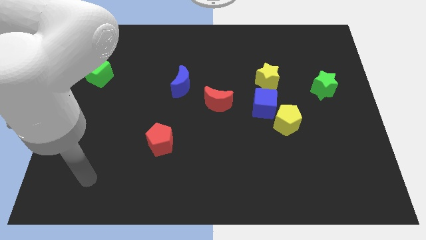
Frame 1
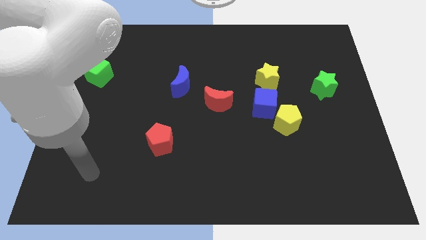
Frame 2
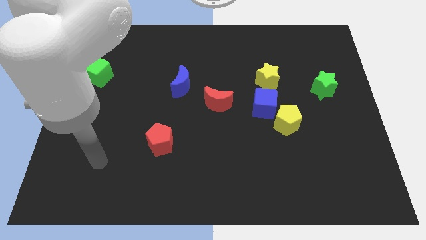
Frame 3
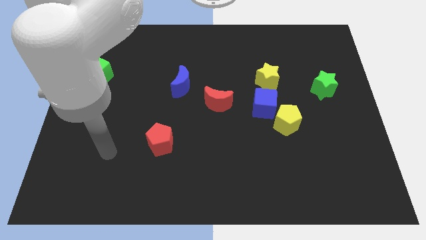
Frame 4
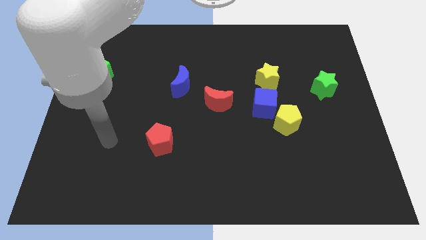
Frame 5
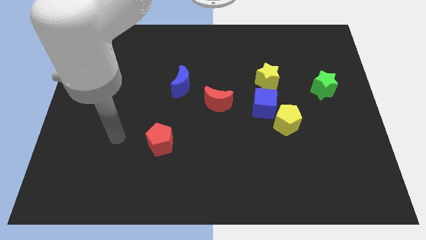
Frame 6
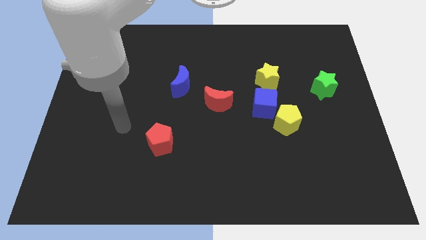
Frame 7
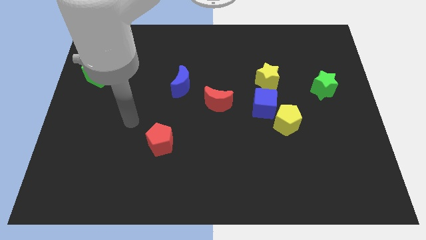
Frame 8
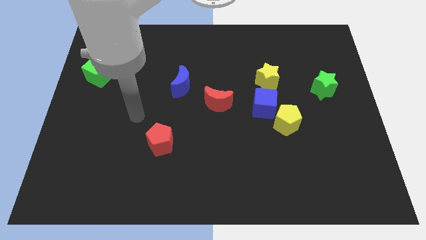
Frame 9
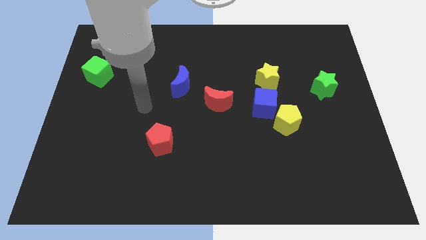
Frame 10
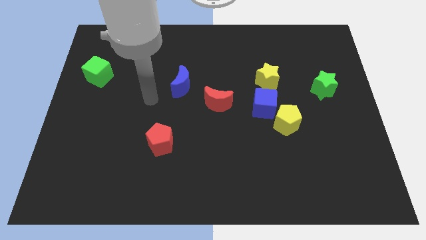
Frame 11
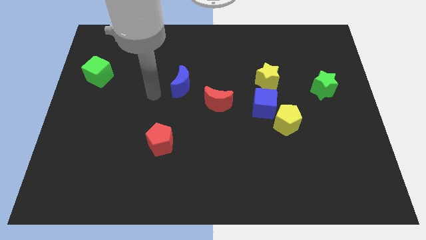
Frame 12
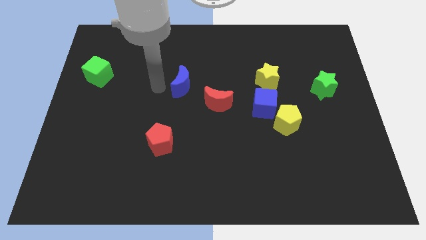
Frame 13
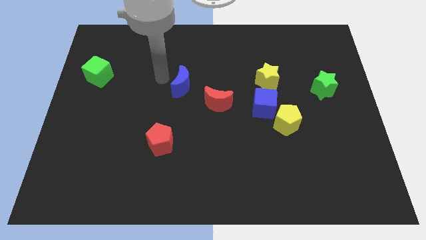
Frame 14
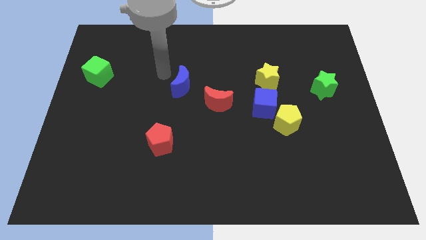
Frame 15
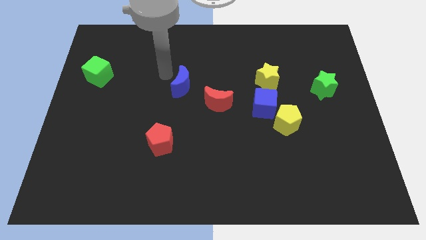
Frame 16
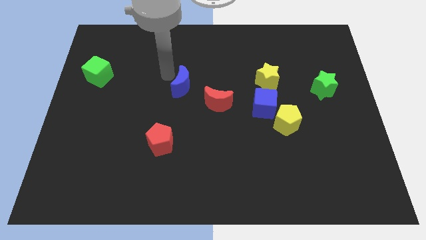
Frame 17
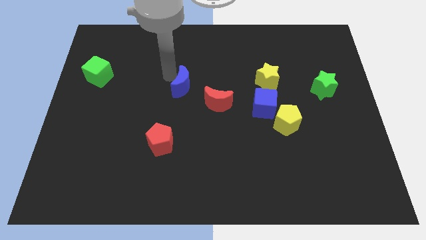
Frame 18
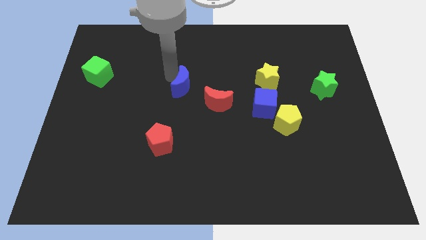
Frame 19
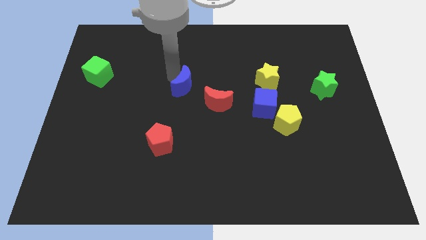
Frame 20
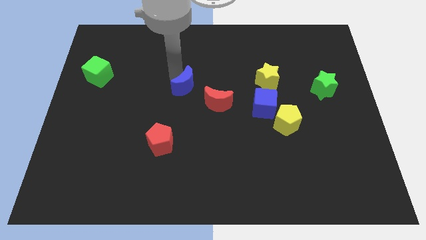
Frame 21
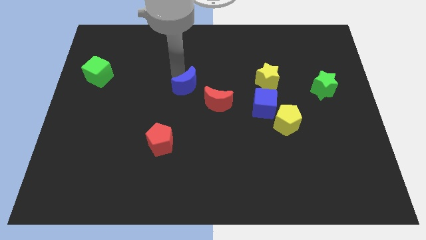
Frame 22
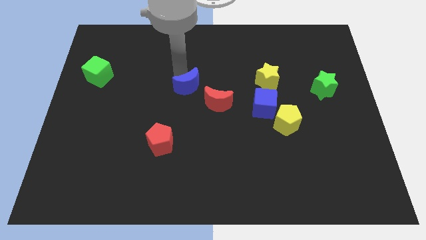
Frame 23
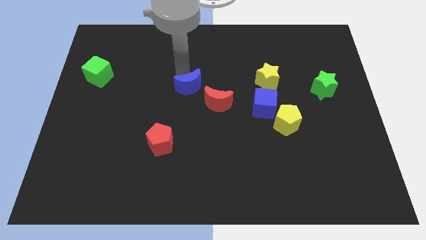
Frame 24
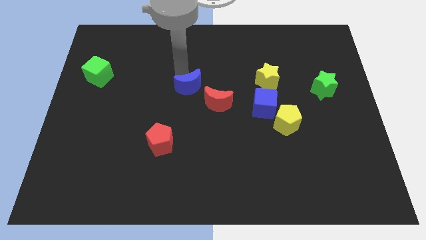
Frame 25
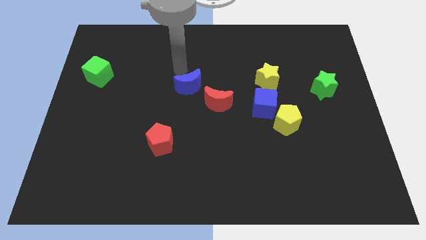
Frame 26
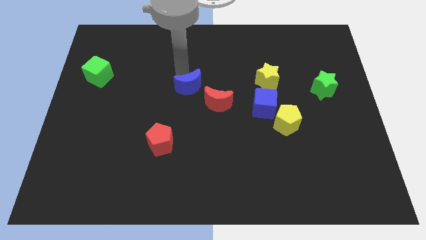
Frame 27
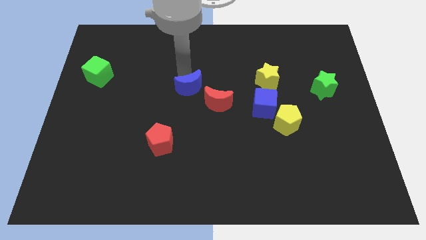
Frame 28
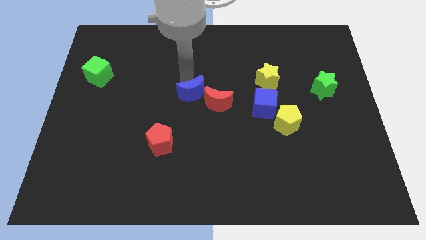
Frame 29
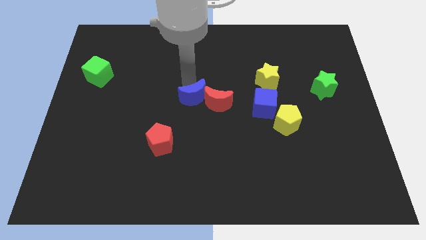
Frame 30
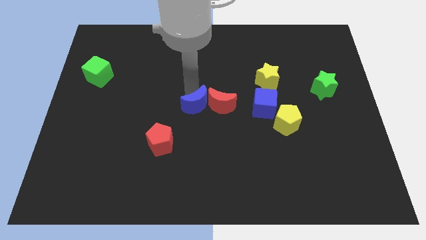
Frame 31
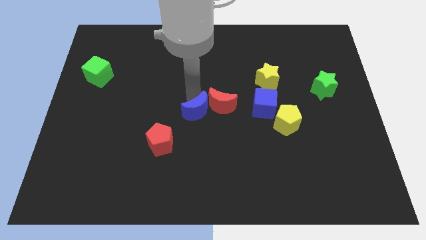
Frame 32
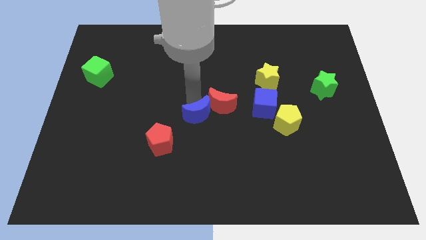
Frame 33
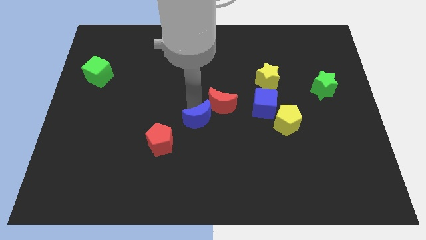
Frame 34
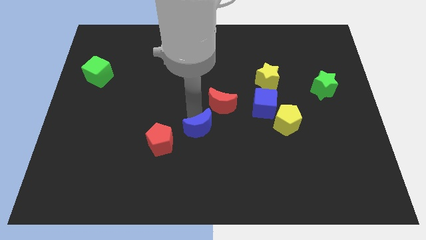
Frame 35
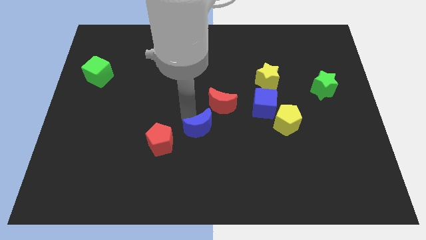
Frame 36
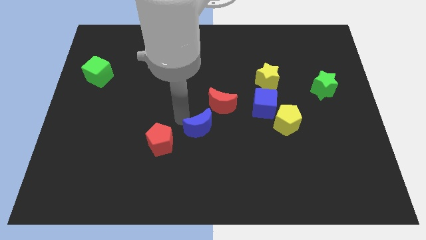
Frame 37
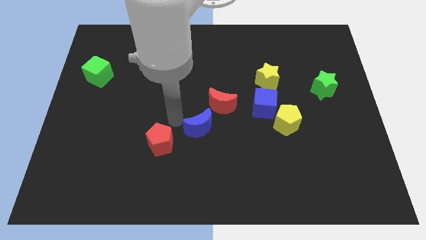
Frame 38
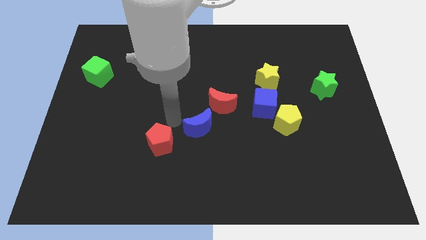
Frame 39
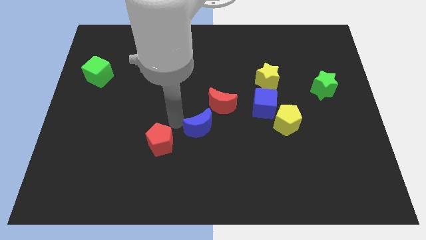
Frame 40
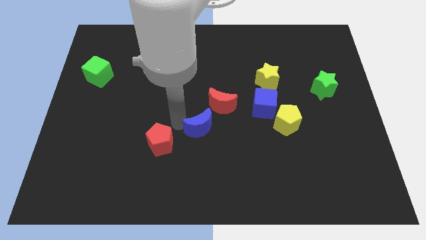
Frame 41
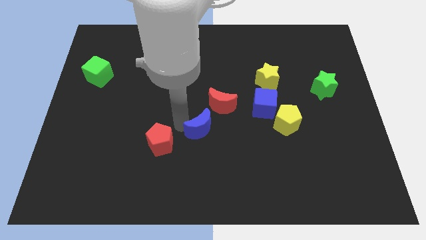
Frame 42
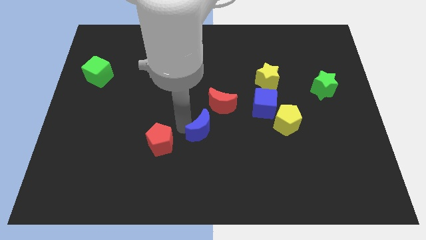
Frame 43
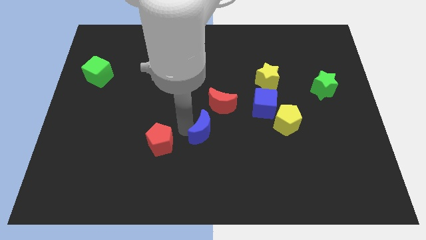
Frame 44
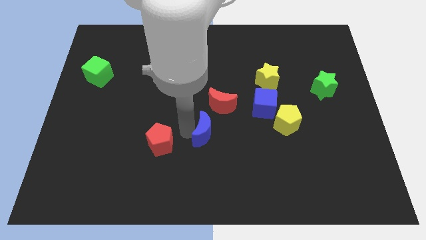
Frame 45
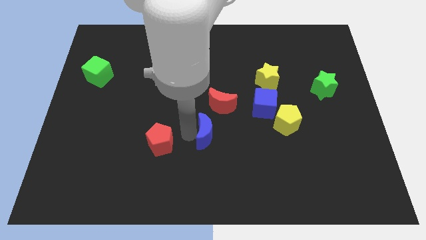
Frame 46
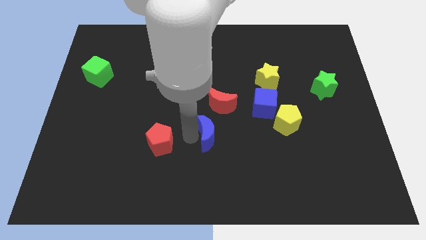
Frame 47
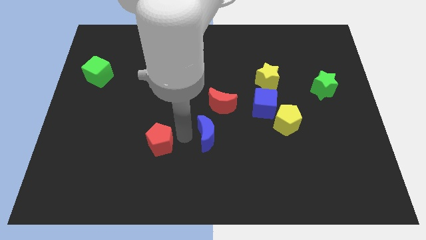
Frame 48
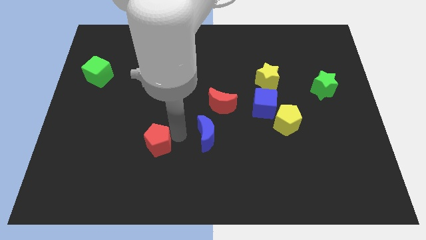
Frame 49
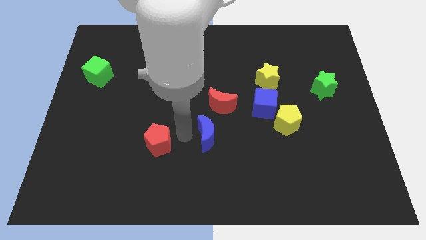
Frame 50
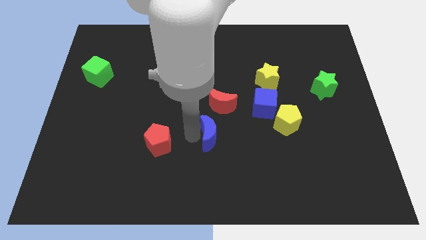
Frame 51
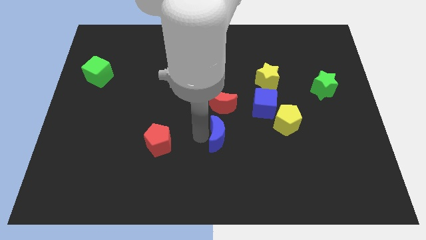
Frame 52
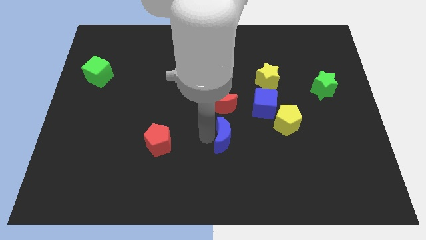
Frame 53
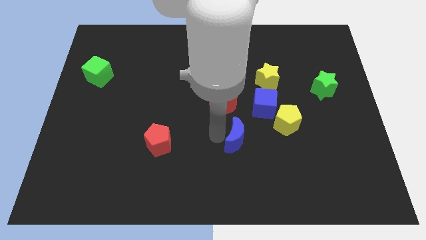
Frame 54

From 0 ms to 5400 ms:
push the blue moon diagonally downwards and to the right

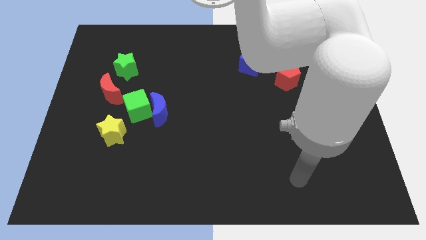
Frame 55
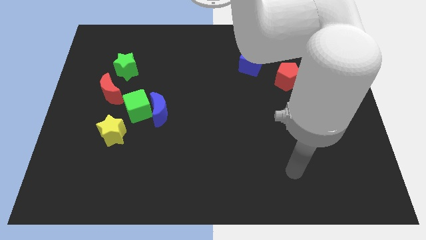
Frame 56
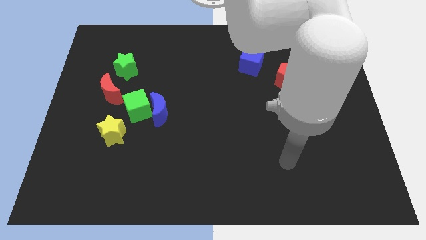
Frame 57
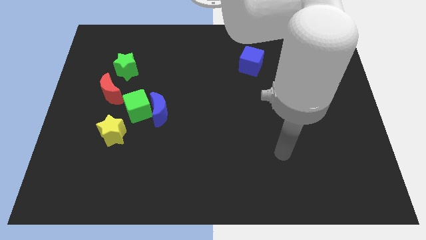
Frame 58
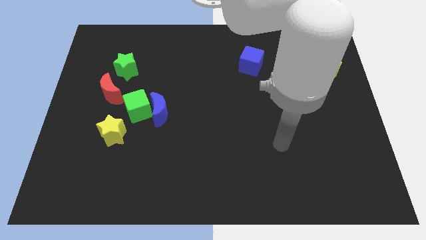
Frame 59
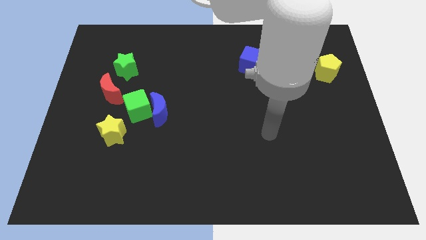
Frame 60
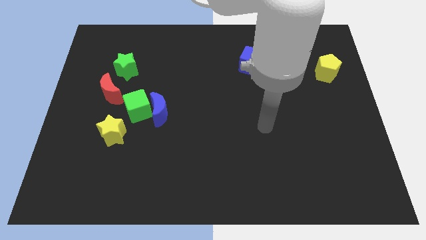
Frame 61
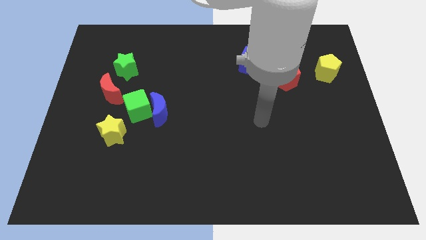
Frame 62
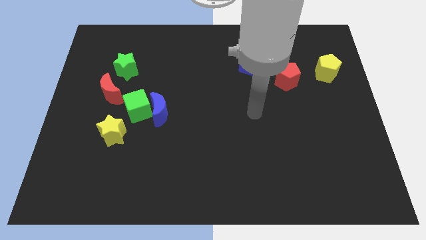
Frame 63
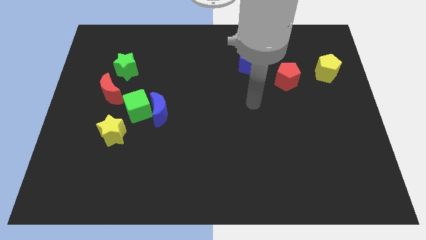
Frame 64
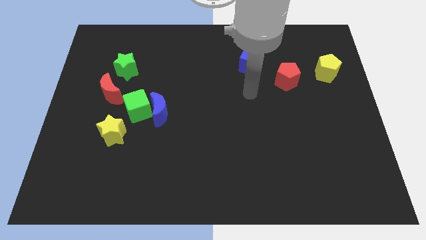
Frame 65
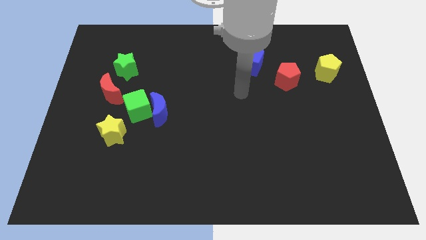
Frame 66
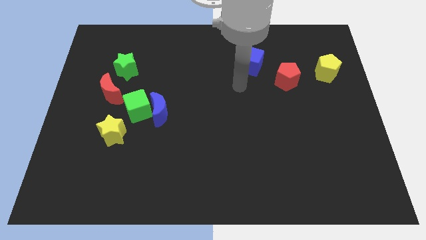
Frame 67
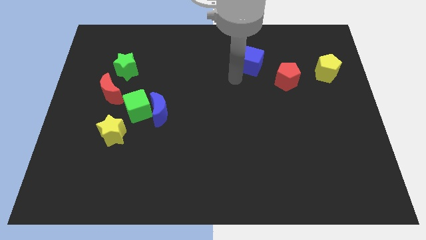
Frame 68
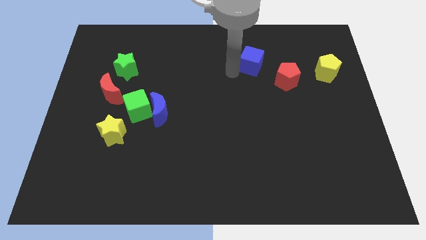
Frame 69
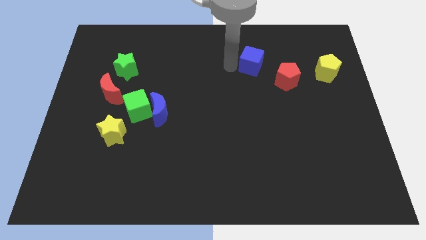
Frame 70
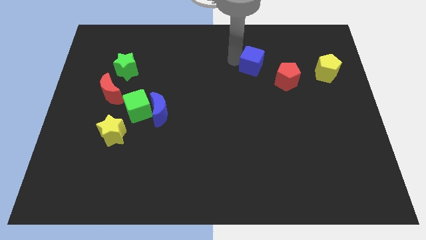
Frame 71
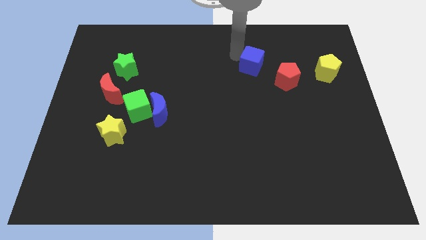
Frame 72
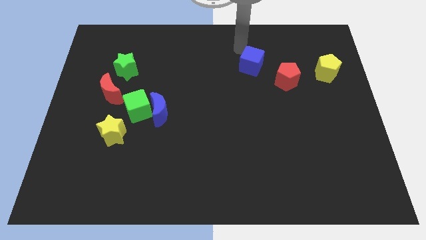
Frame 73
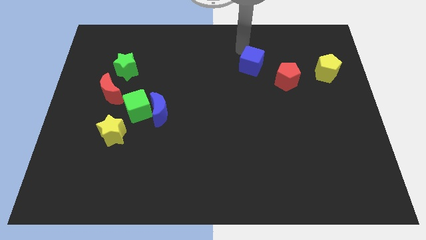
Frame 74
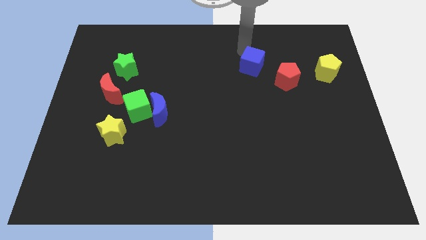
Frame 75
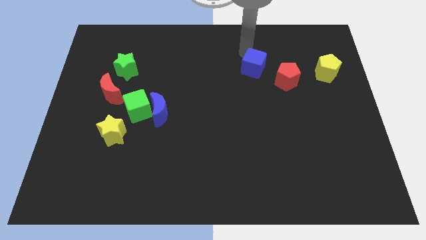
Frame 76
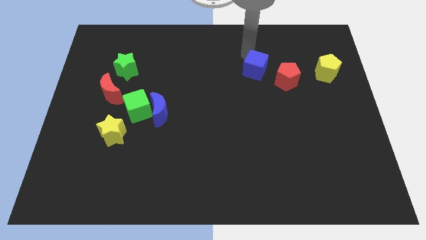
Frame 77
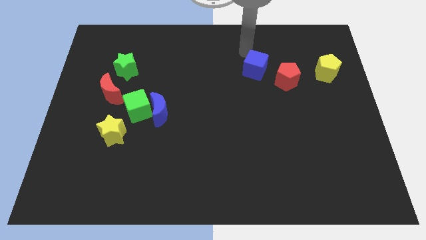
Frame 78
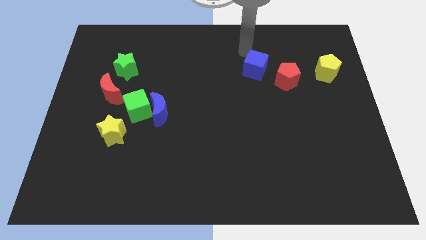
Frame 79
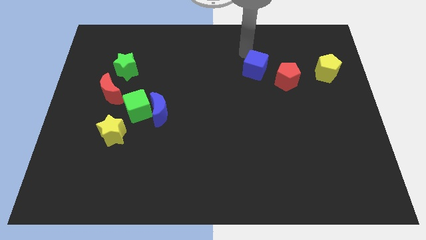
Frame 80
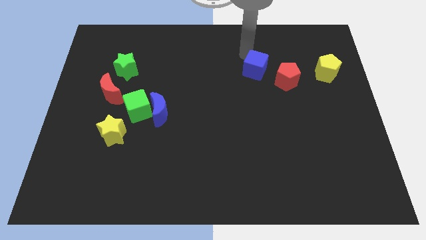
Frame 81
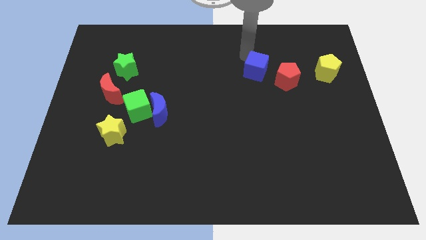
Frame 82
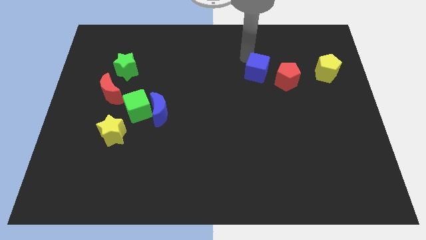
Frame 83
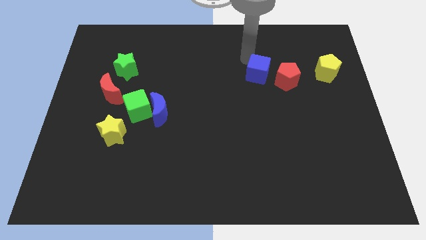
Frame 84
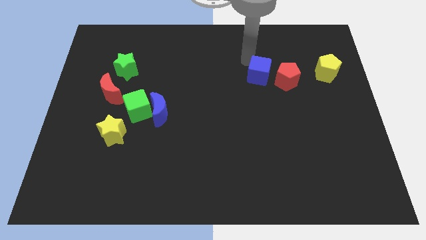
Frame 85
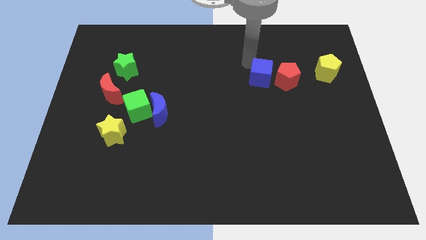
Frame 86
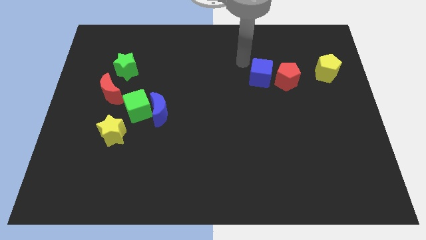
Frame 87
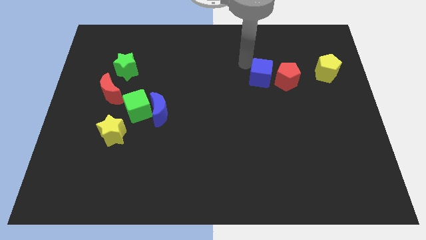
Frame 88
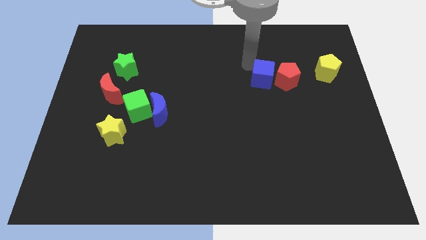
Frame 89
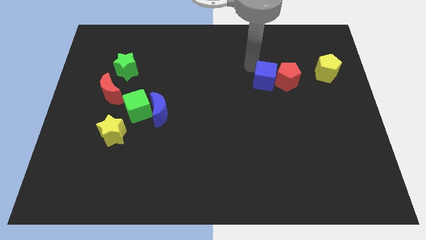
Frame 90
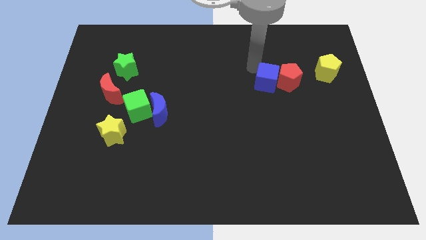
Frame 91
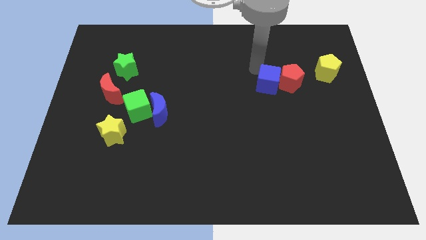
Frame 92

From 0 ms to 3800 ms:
move the blue cube a bit downwards and right
